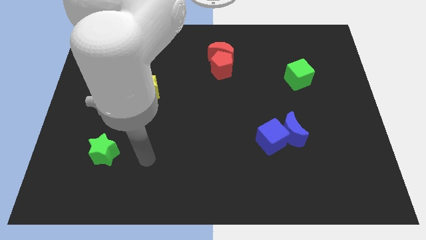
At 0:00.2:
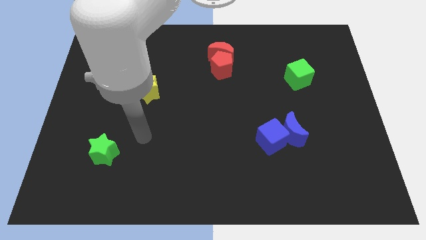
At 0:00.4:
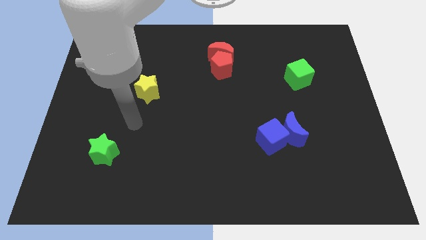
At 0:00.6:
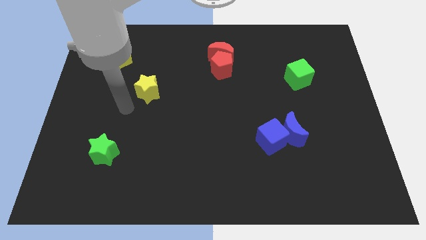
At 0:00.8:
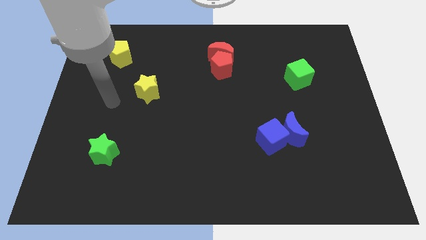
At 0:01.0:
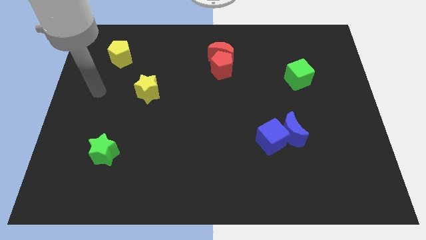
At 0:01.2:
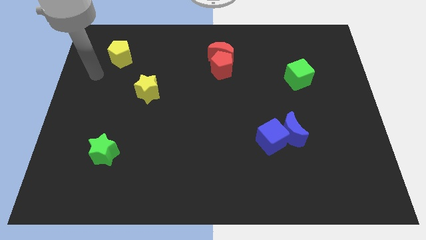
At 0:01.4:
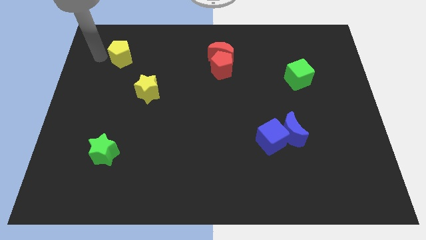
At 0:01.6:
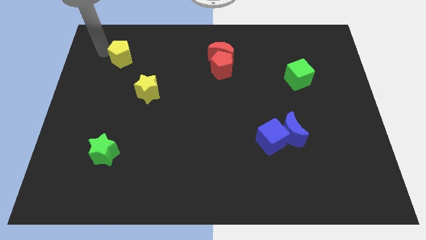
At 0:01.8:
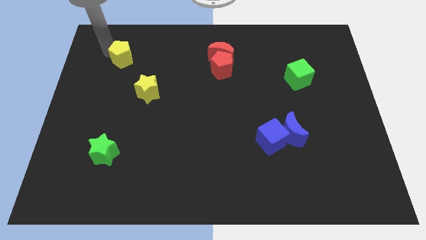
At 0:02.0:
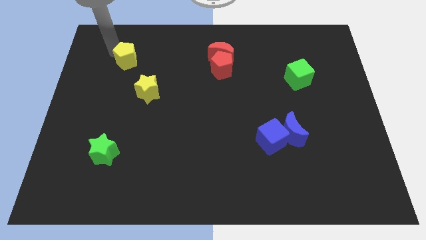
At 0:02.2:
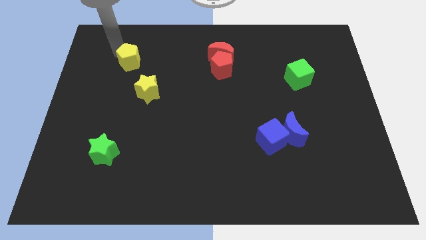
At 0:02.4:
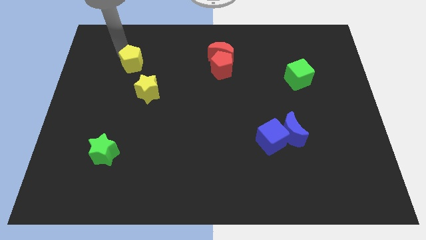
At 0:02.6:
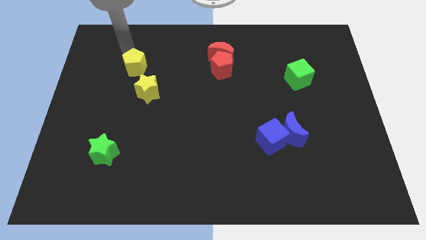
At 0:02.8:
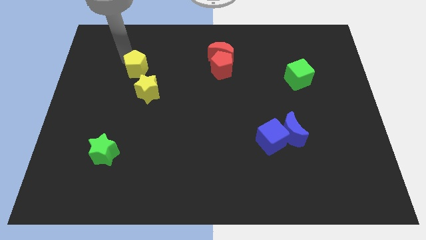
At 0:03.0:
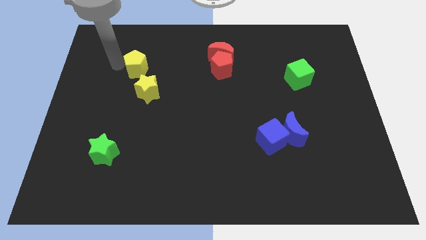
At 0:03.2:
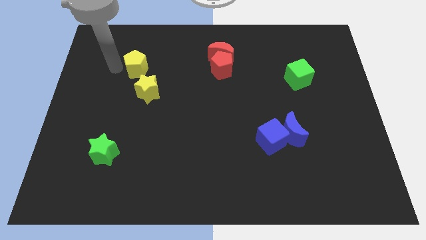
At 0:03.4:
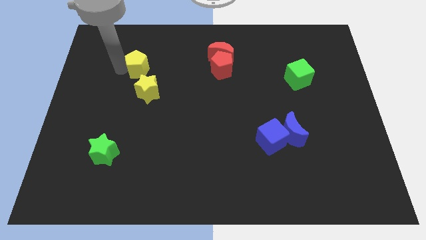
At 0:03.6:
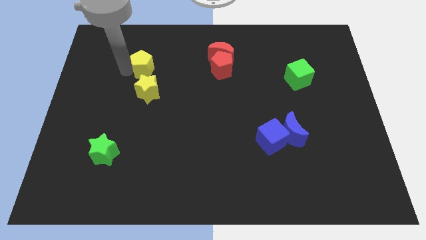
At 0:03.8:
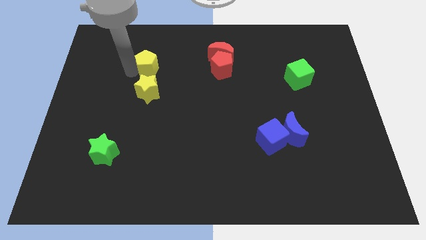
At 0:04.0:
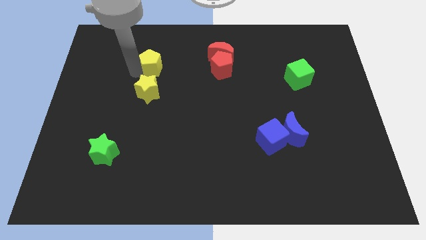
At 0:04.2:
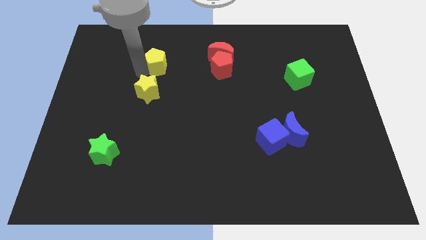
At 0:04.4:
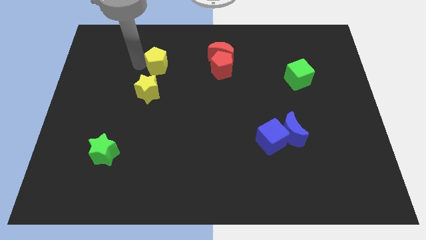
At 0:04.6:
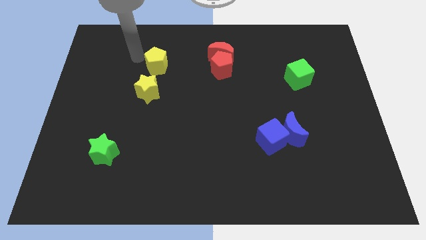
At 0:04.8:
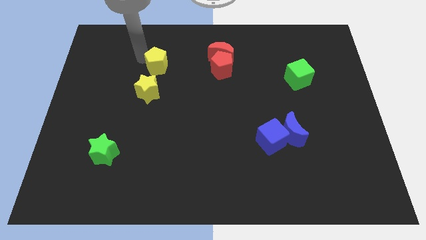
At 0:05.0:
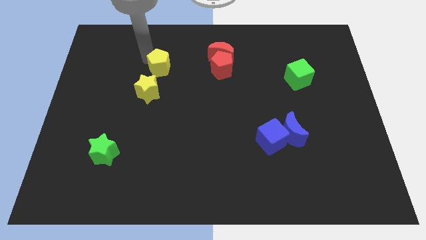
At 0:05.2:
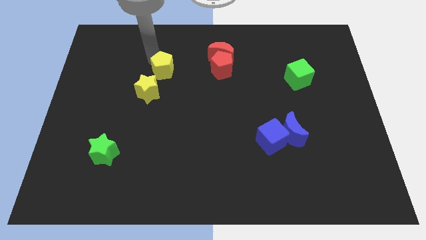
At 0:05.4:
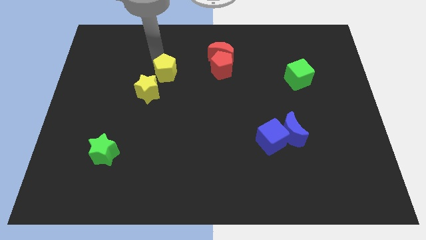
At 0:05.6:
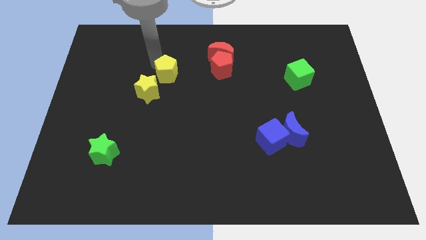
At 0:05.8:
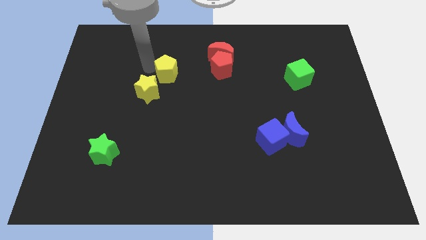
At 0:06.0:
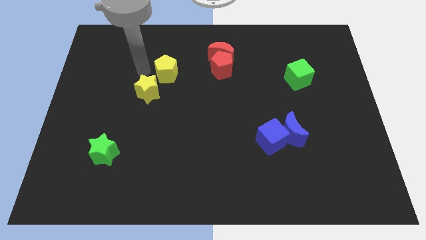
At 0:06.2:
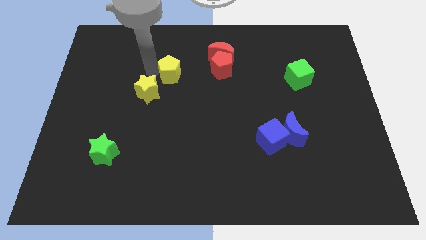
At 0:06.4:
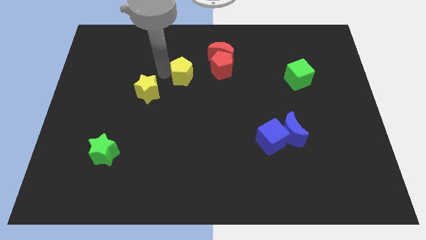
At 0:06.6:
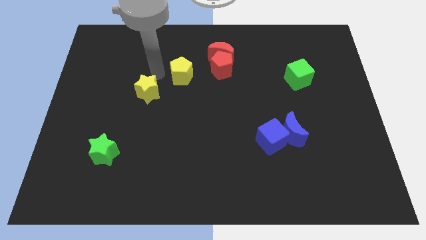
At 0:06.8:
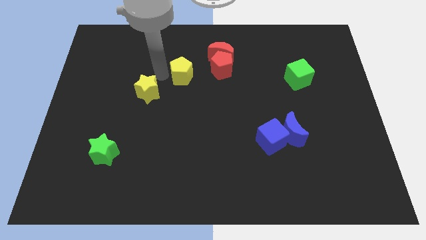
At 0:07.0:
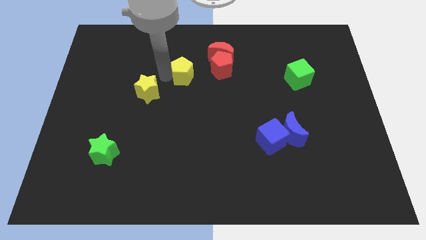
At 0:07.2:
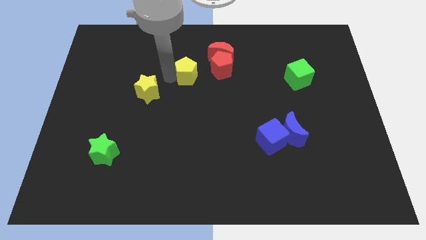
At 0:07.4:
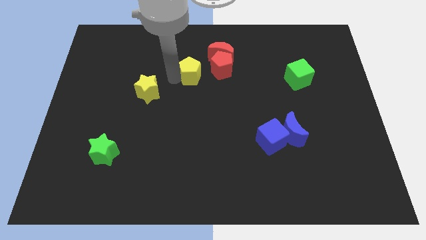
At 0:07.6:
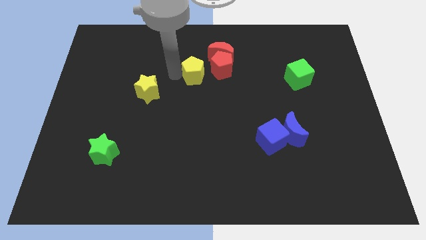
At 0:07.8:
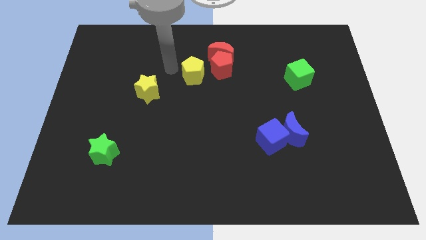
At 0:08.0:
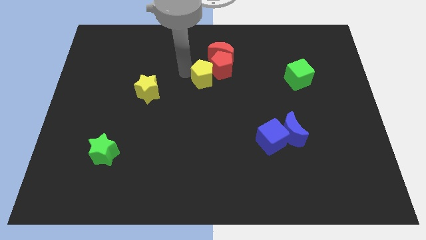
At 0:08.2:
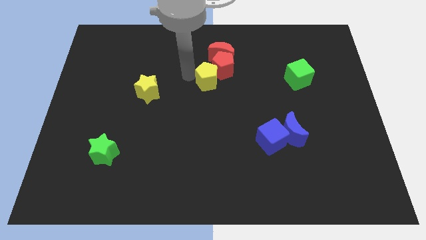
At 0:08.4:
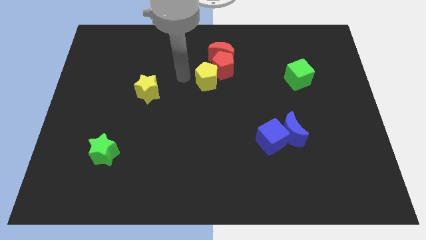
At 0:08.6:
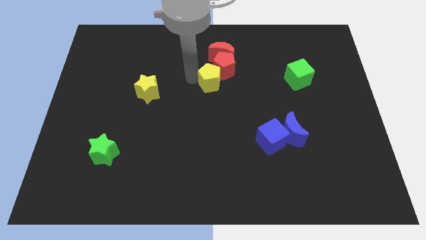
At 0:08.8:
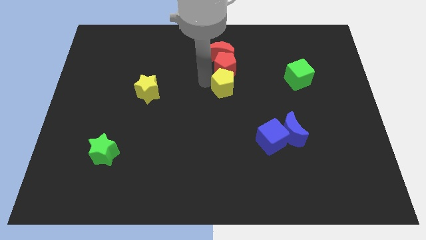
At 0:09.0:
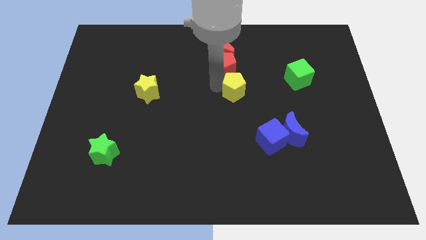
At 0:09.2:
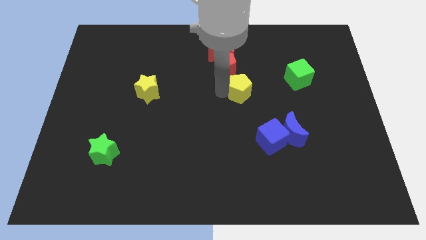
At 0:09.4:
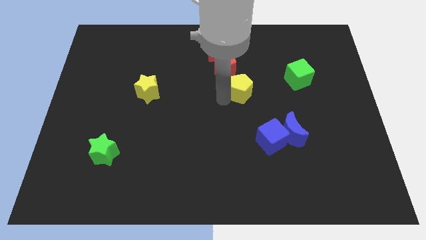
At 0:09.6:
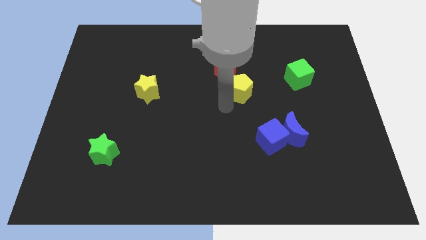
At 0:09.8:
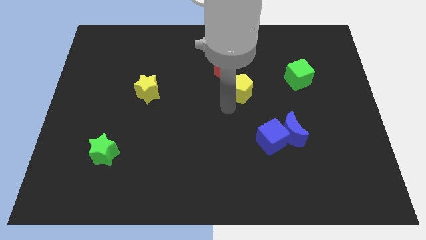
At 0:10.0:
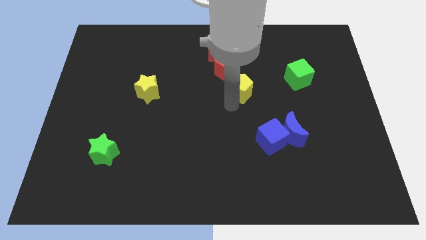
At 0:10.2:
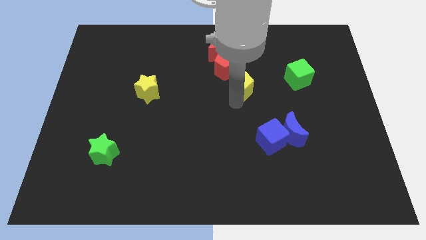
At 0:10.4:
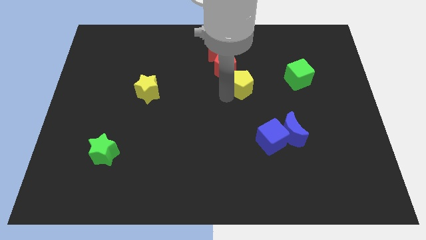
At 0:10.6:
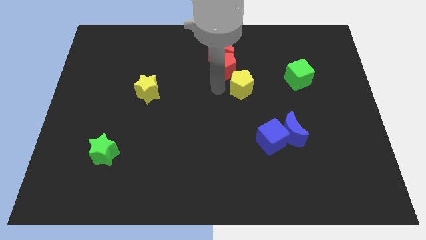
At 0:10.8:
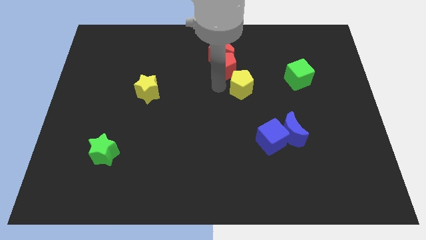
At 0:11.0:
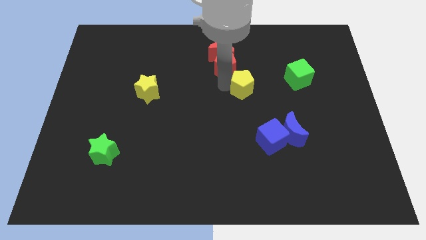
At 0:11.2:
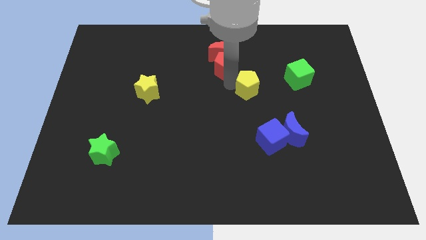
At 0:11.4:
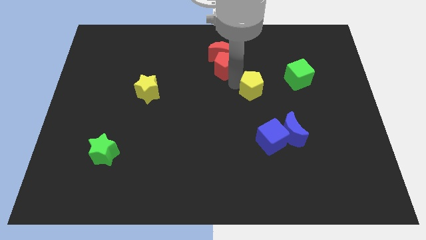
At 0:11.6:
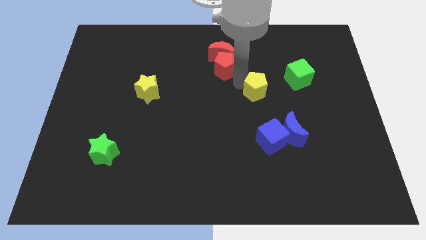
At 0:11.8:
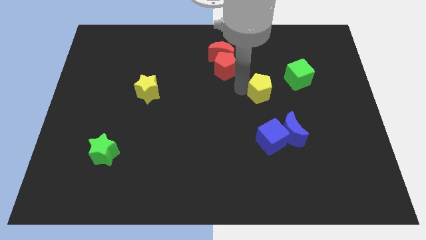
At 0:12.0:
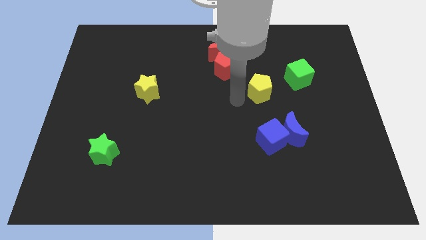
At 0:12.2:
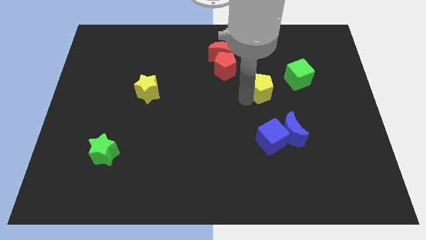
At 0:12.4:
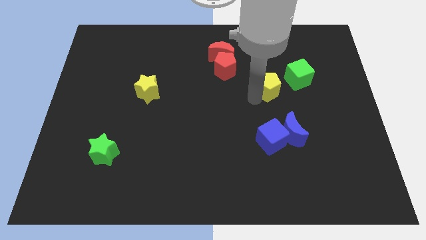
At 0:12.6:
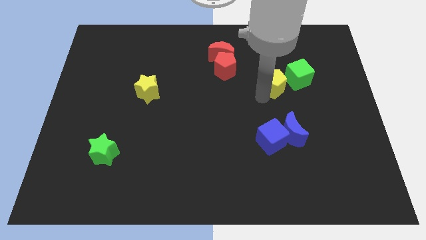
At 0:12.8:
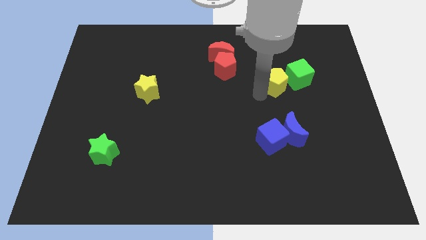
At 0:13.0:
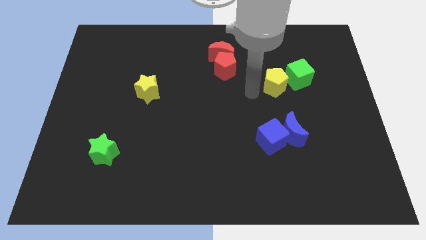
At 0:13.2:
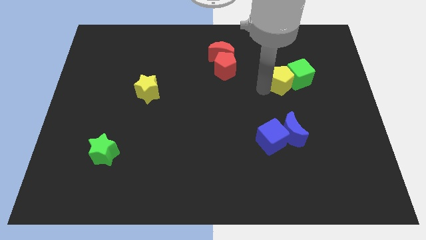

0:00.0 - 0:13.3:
put the yellow pentagon to the green cube
